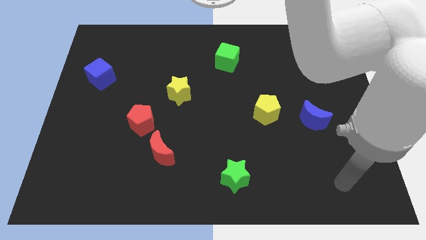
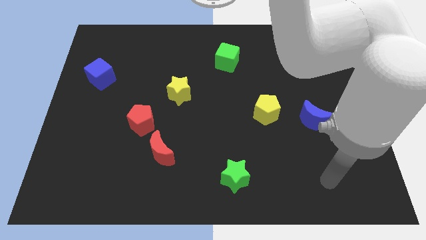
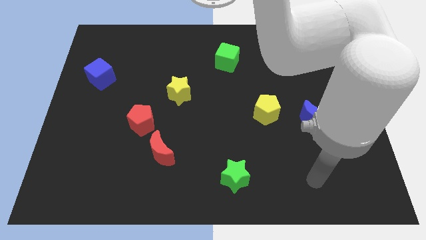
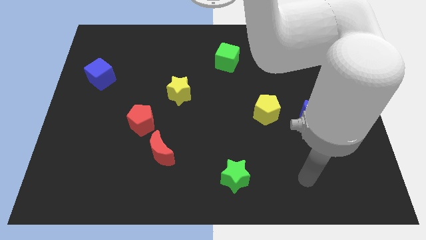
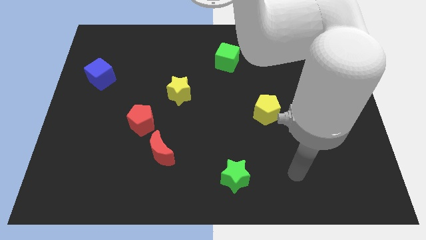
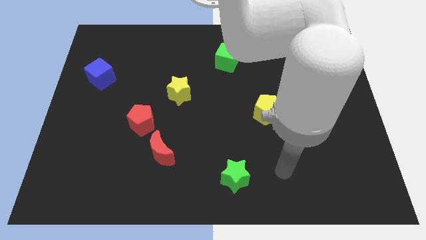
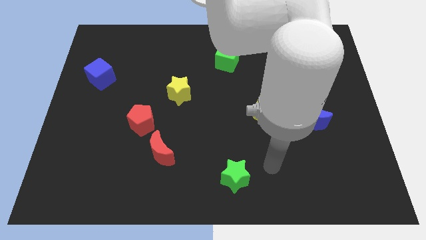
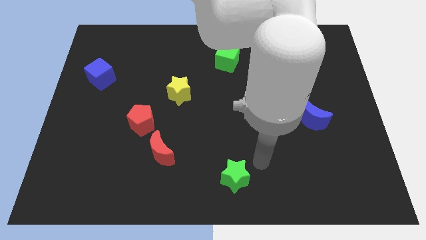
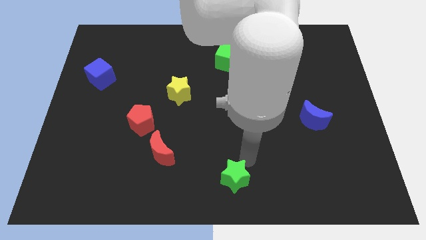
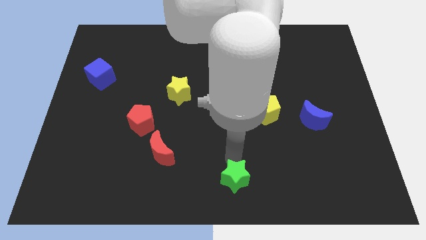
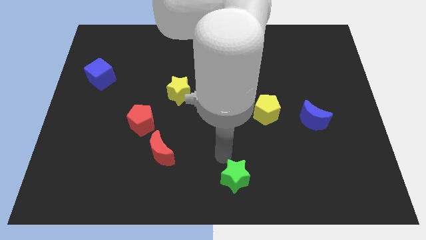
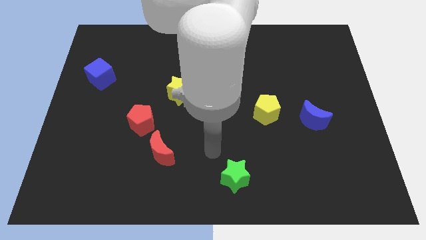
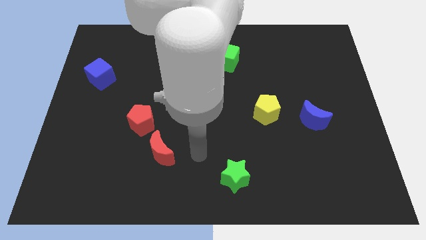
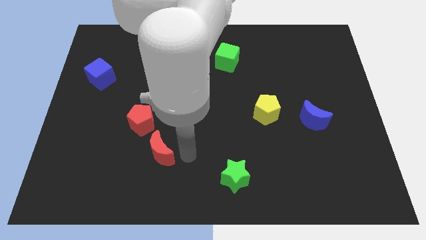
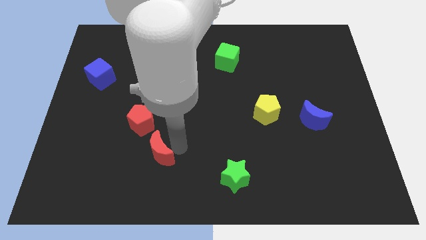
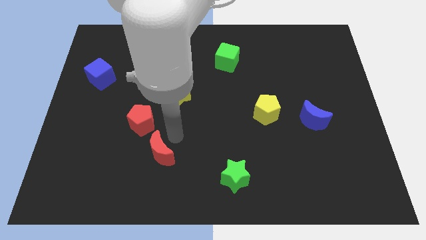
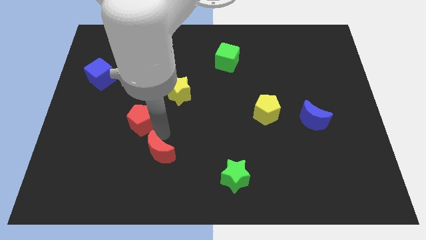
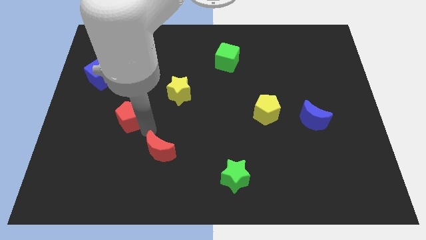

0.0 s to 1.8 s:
separate the red moon from the red pentagon

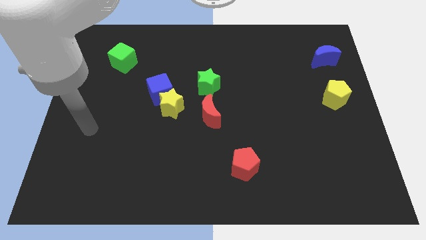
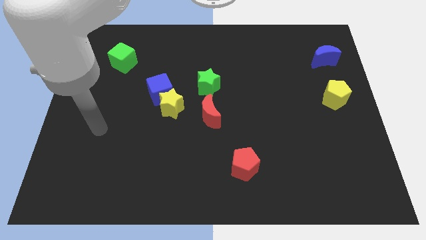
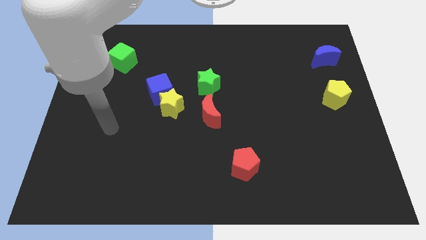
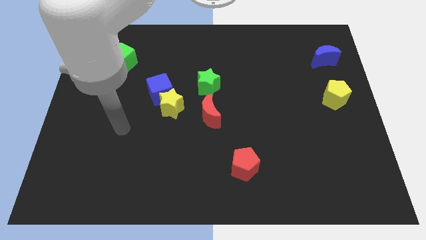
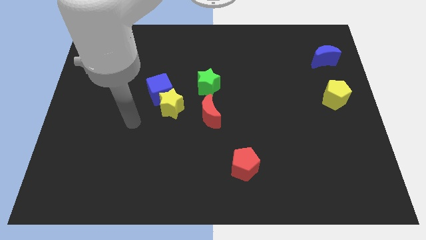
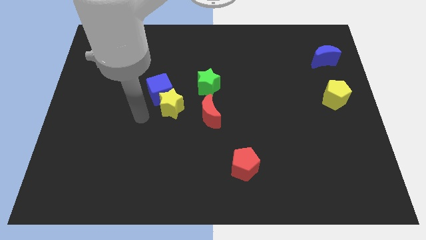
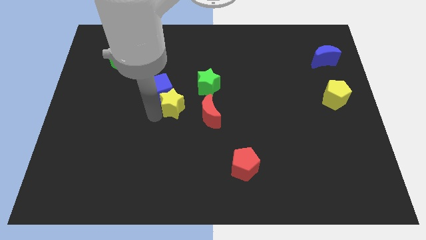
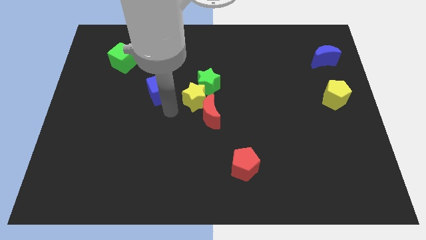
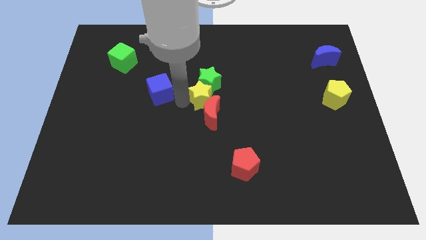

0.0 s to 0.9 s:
pull the blue cube apart from the yellow star

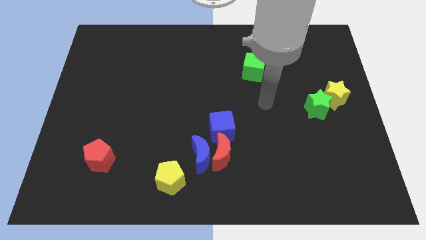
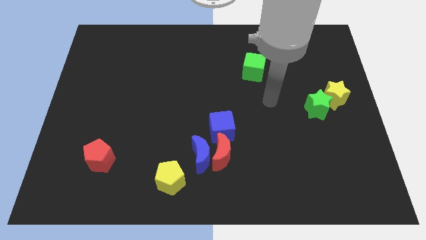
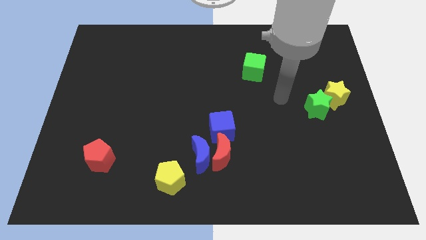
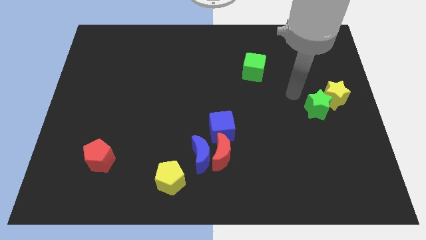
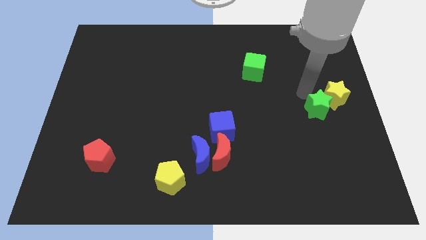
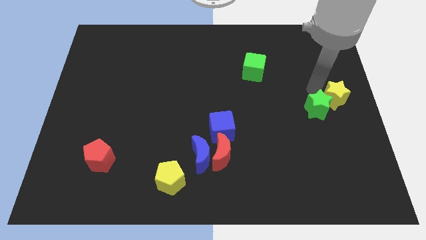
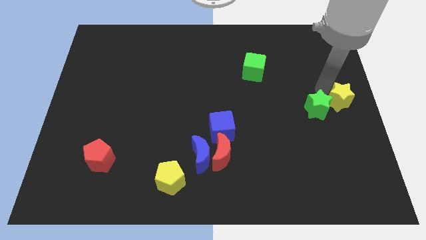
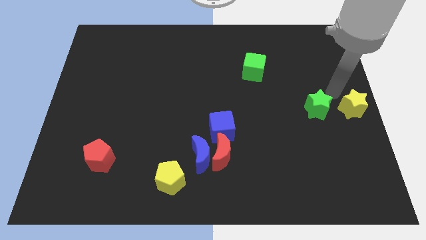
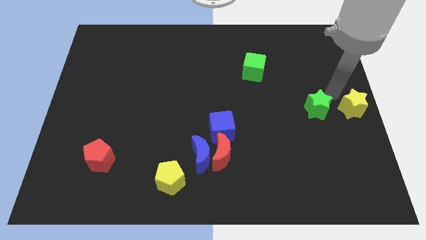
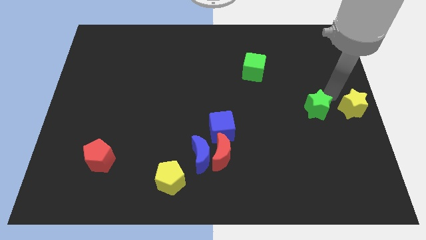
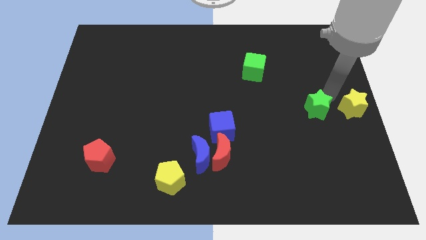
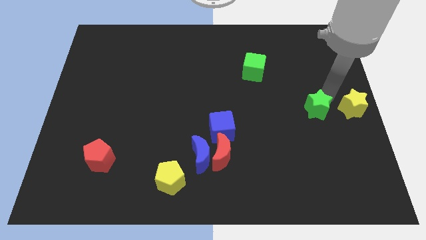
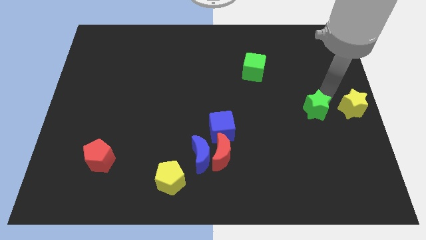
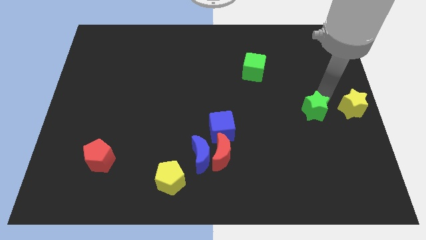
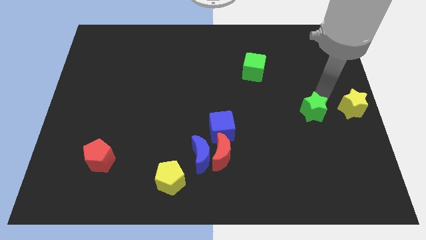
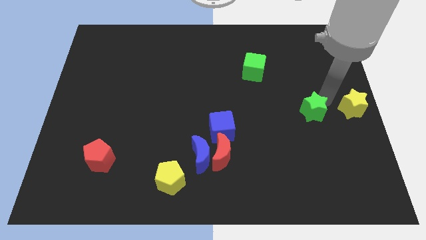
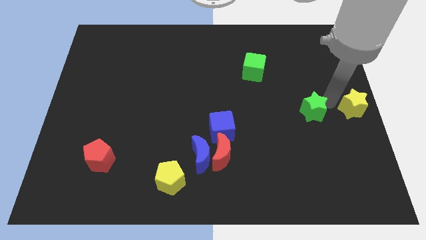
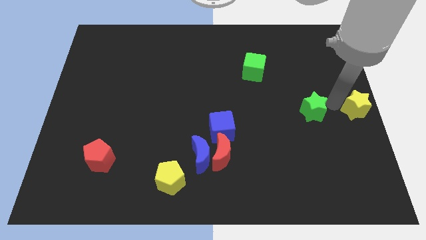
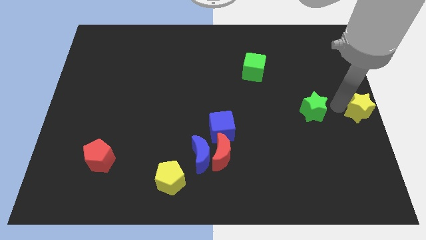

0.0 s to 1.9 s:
pull the green star apart from the yellow star

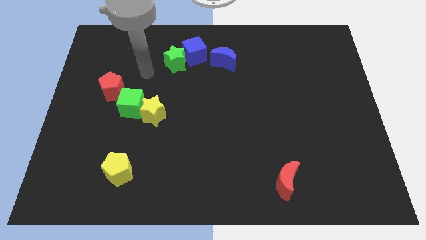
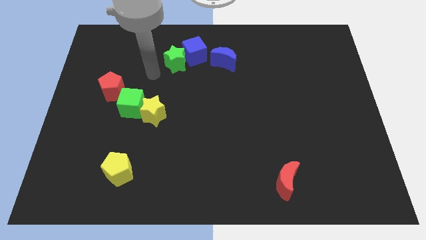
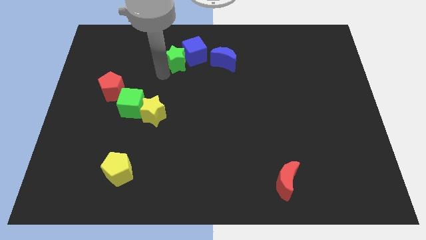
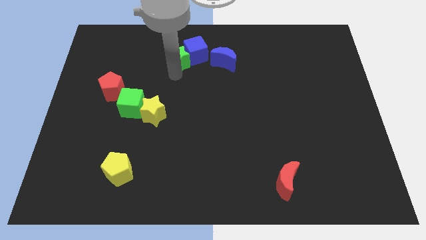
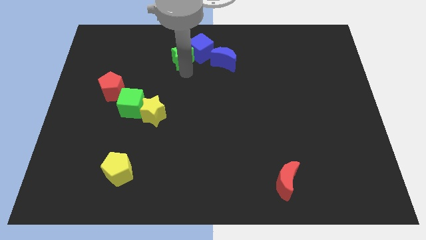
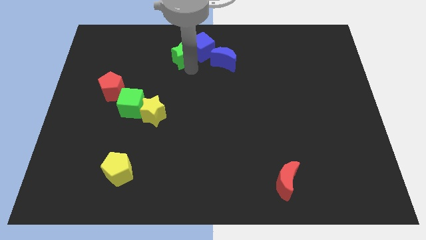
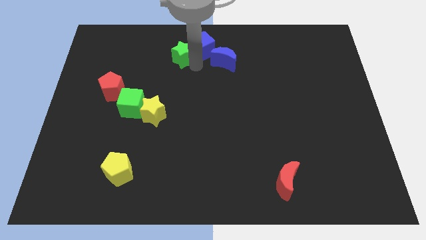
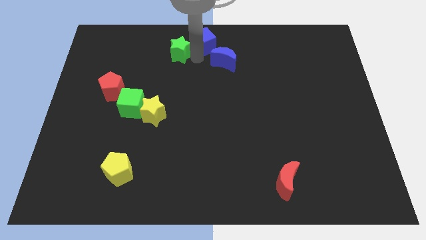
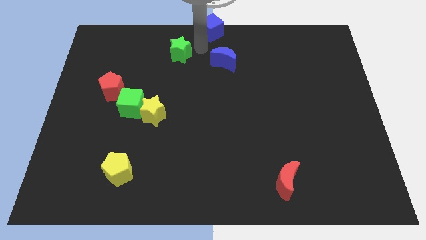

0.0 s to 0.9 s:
separate the green star from the blue cube

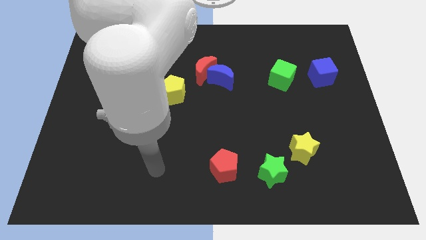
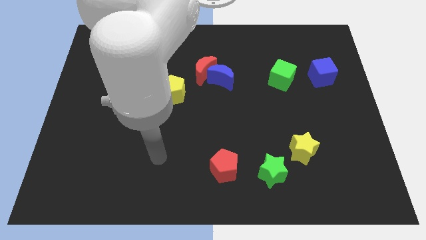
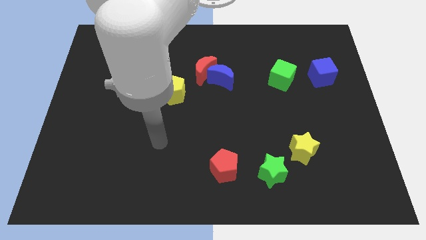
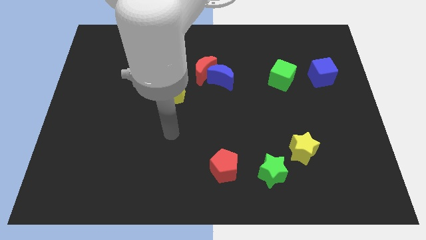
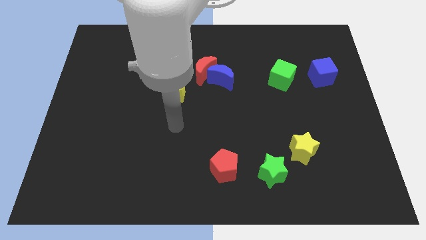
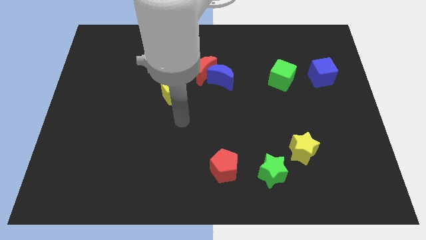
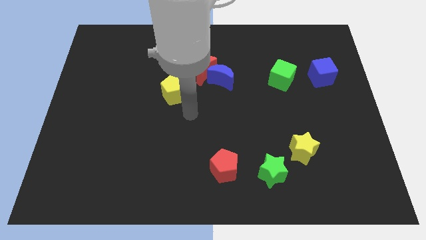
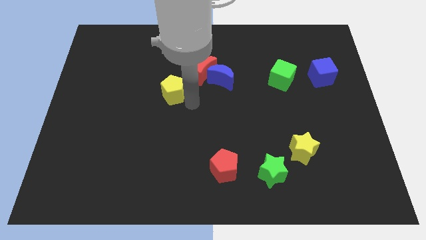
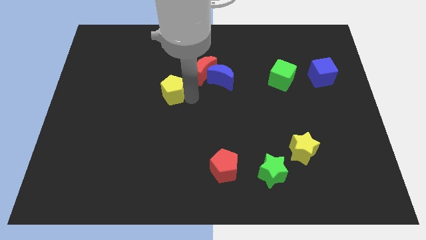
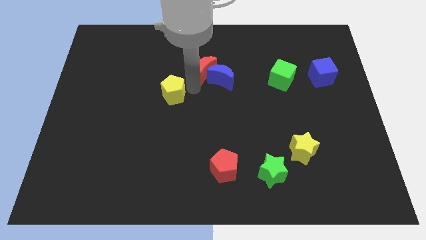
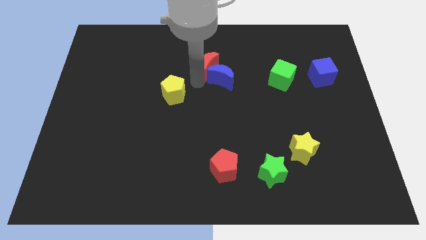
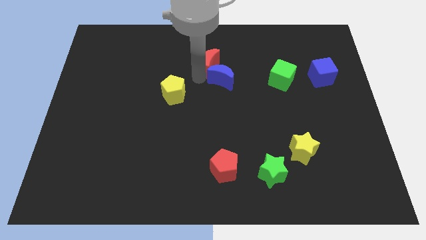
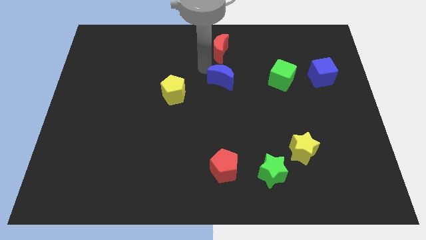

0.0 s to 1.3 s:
pull the blue moon apart from the red moon

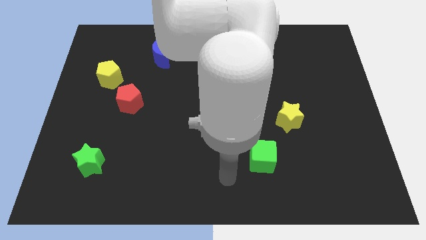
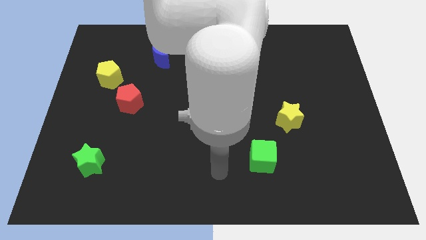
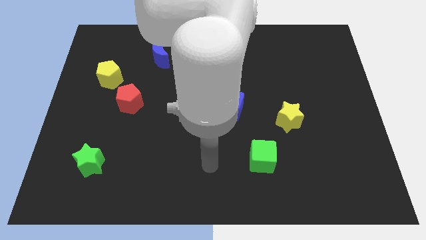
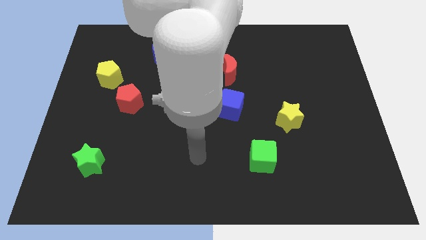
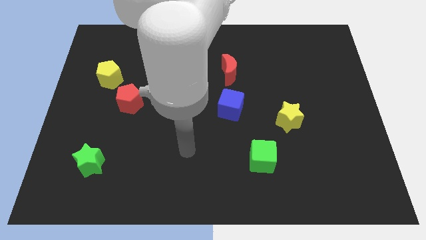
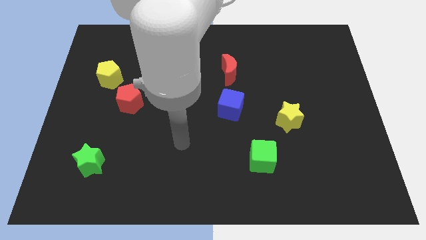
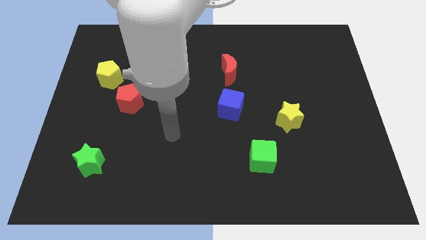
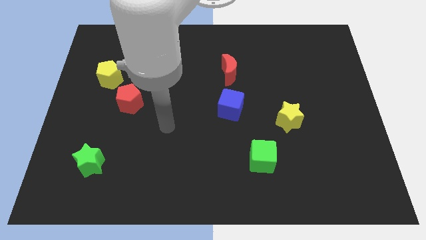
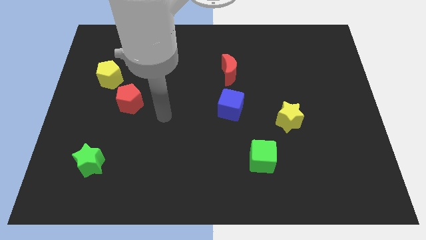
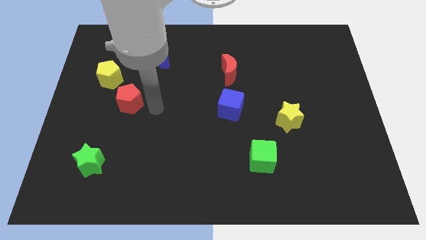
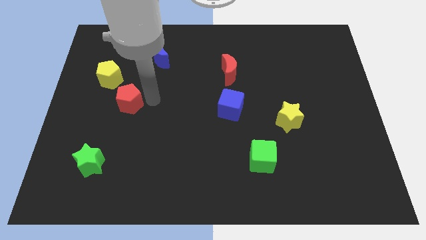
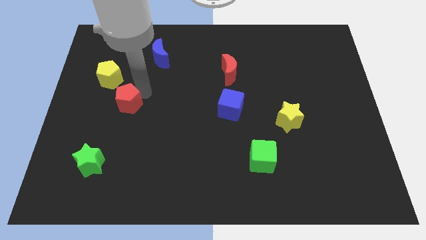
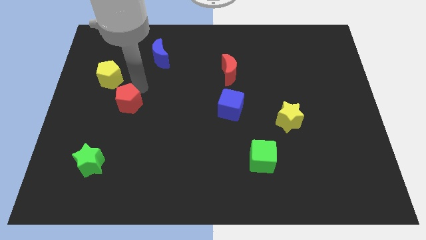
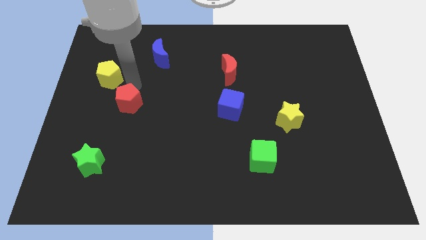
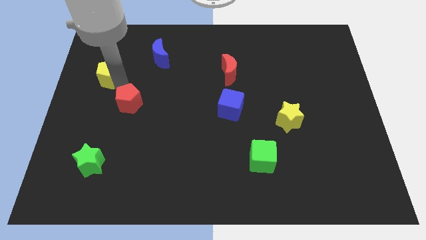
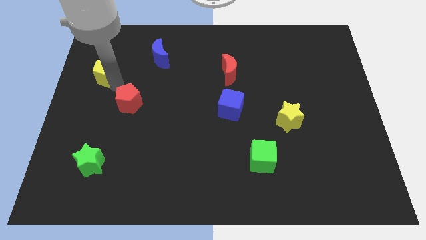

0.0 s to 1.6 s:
move the red pentagon away from the yellow pentagon

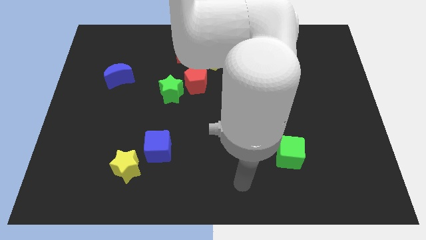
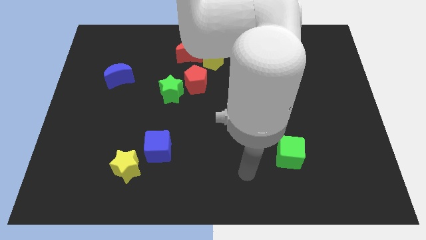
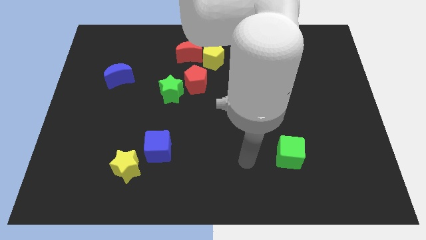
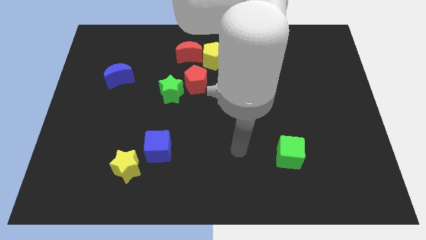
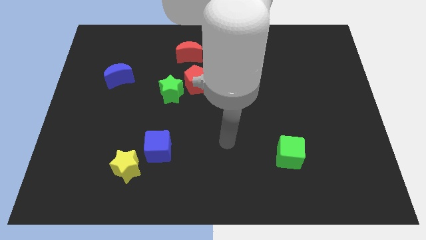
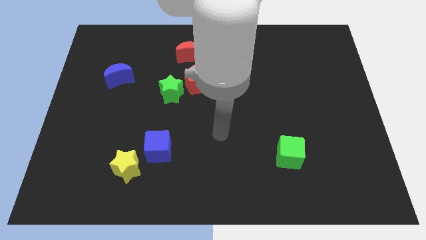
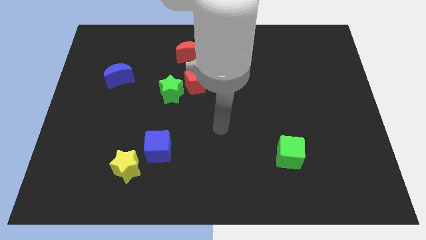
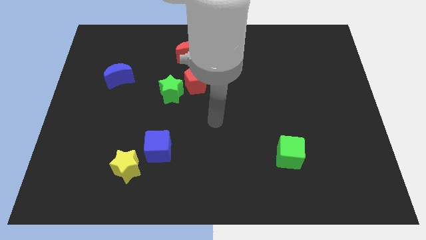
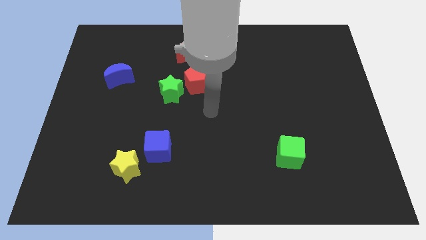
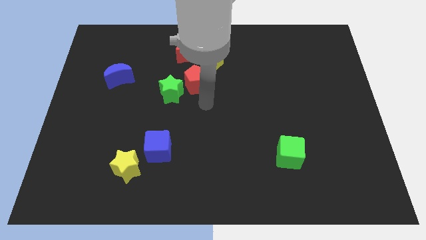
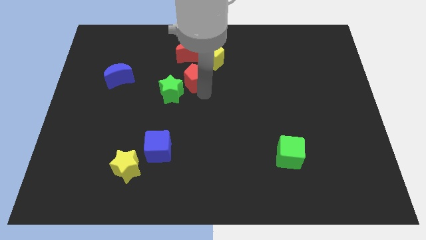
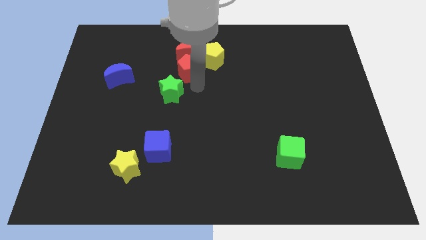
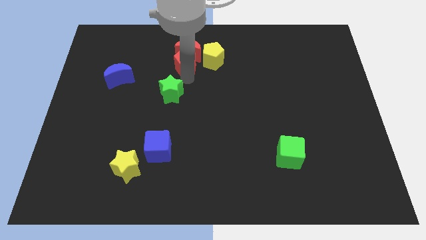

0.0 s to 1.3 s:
pull the green star apart from the red pentagon
